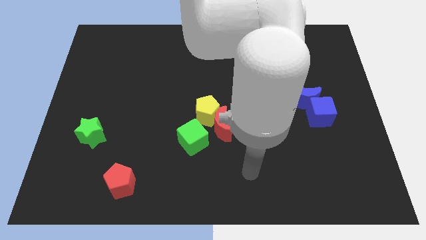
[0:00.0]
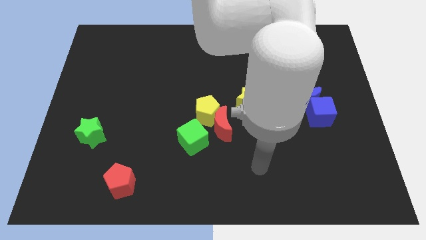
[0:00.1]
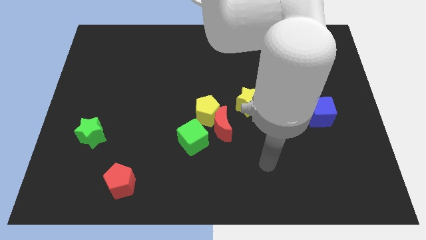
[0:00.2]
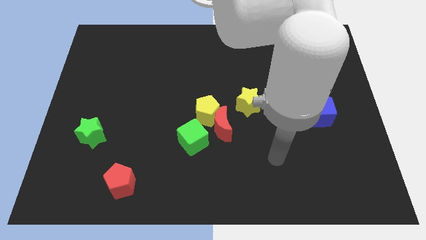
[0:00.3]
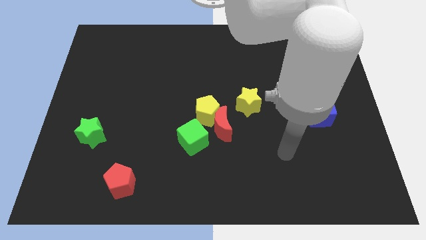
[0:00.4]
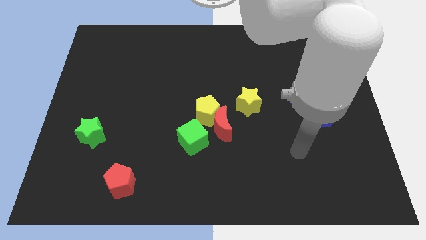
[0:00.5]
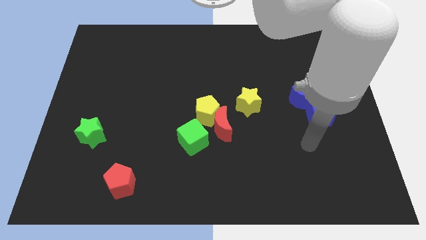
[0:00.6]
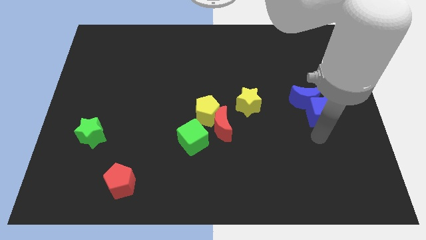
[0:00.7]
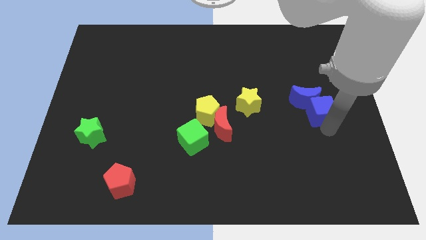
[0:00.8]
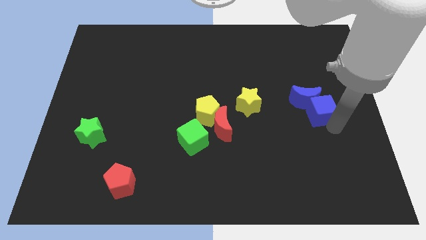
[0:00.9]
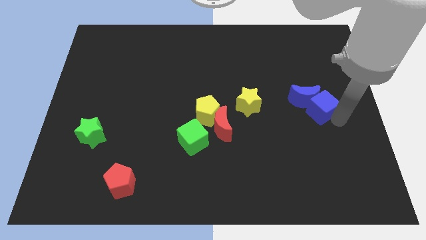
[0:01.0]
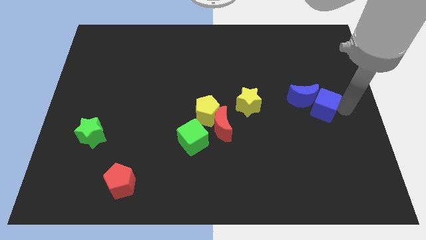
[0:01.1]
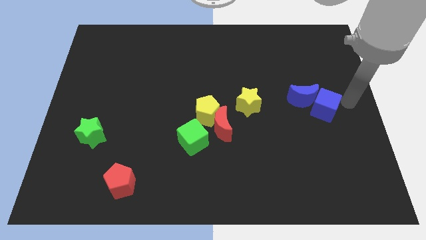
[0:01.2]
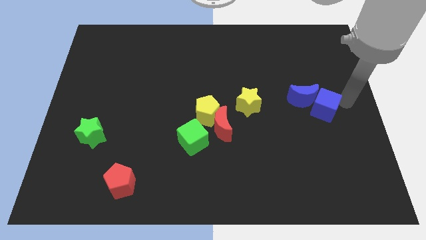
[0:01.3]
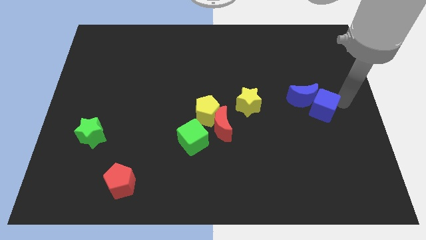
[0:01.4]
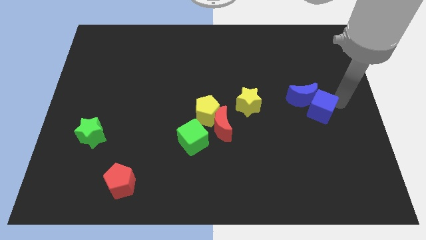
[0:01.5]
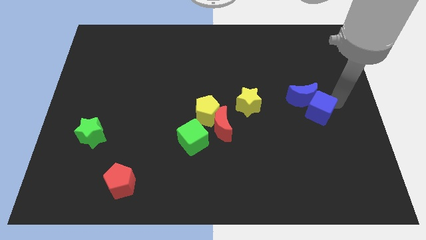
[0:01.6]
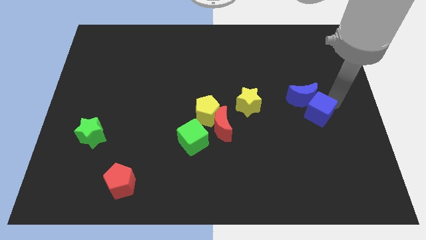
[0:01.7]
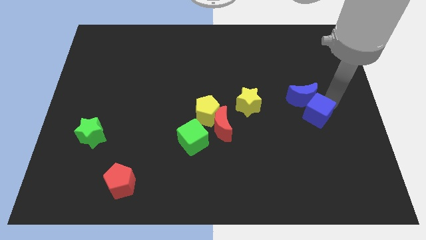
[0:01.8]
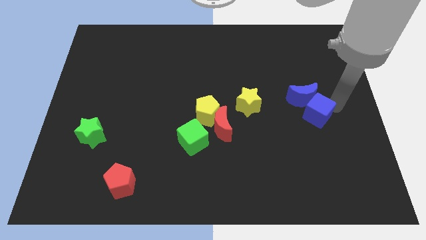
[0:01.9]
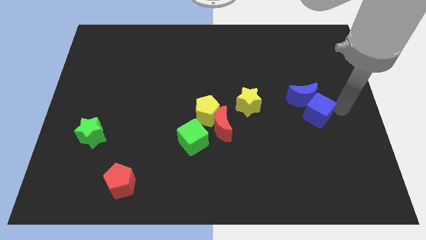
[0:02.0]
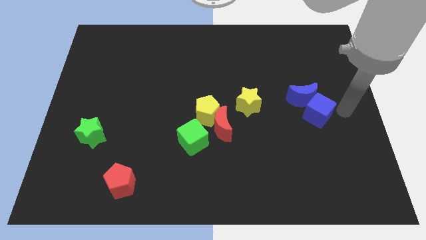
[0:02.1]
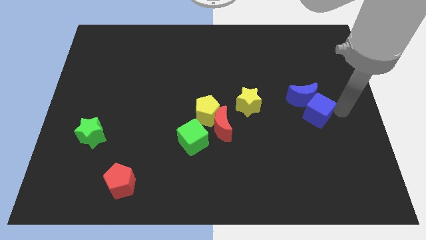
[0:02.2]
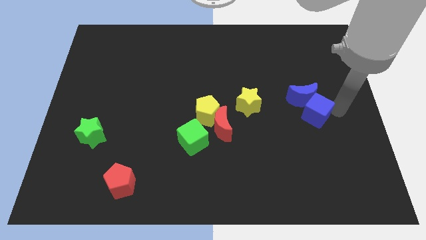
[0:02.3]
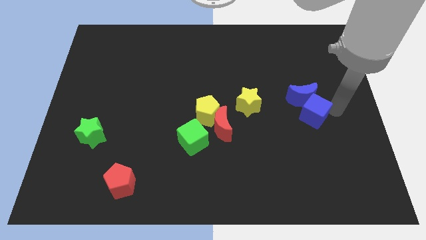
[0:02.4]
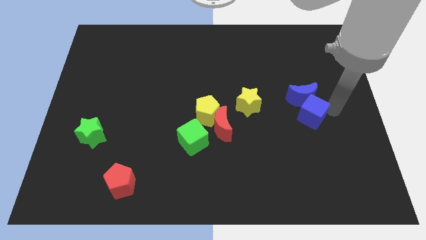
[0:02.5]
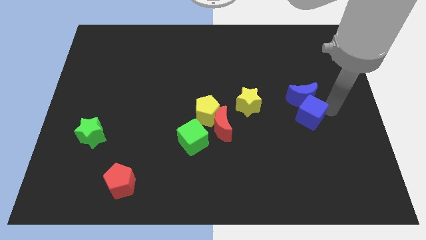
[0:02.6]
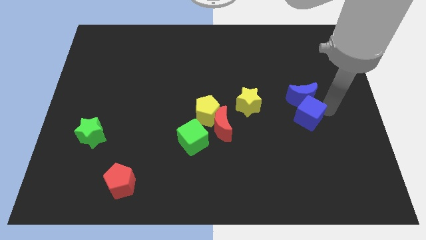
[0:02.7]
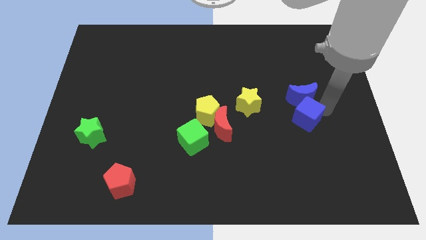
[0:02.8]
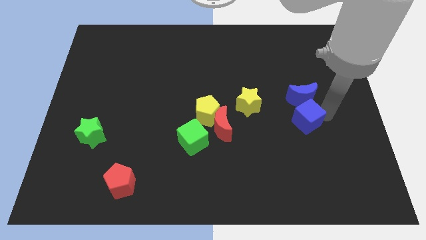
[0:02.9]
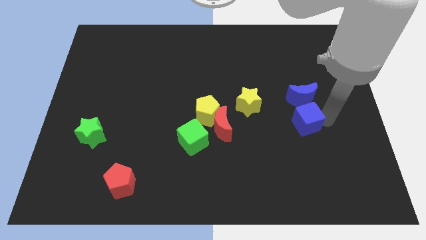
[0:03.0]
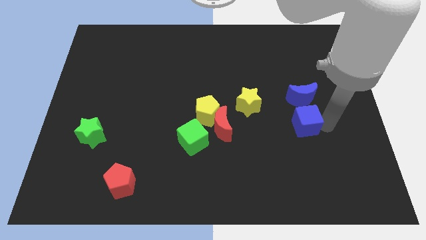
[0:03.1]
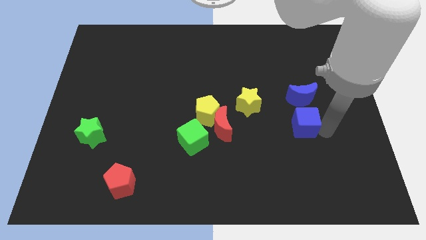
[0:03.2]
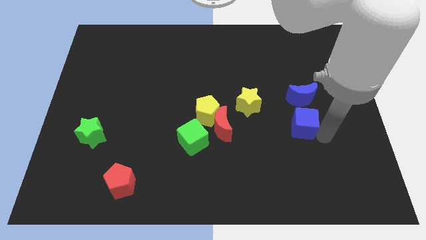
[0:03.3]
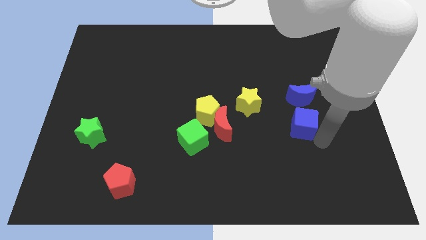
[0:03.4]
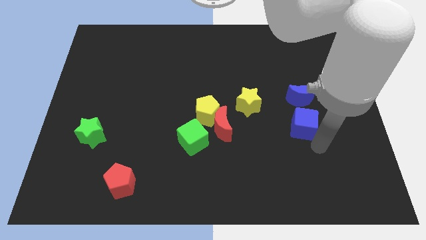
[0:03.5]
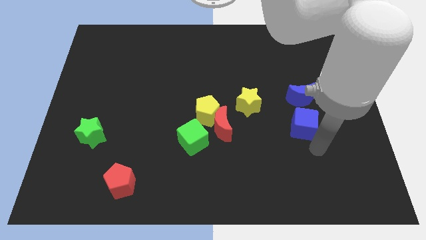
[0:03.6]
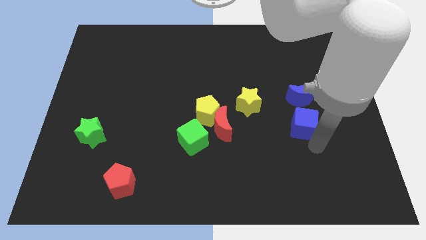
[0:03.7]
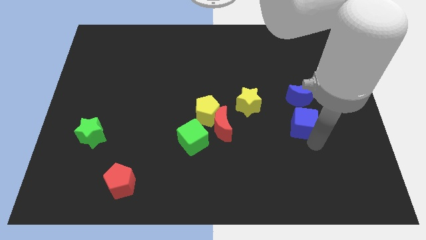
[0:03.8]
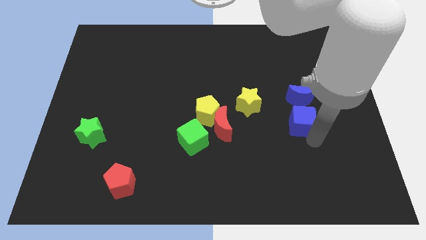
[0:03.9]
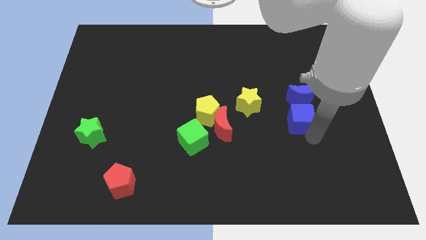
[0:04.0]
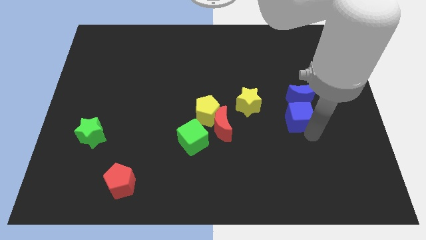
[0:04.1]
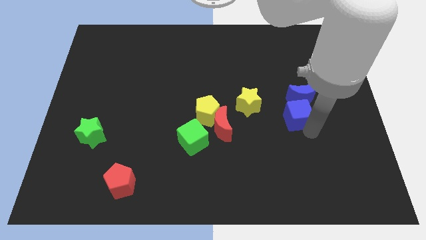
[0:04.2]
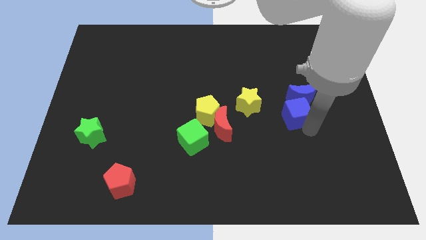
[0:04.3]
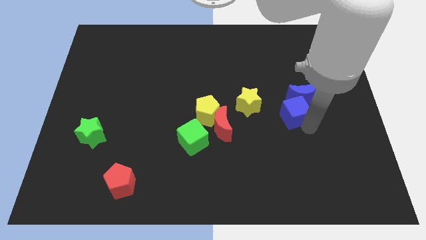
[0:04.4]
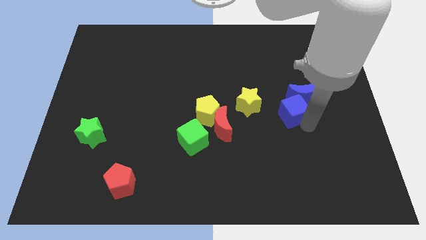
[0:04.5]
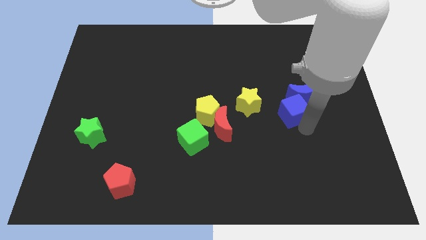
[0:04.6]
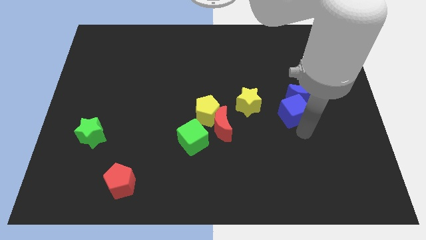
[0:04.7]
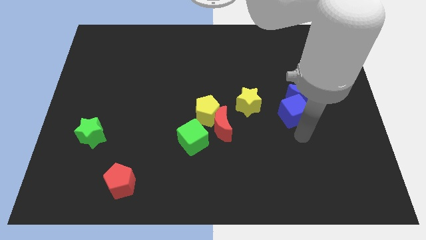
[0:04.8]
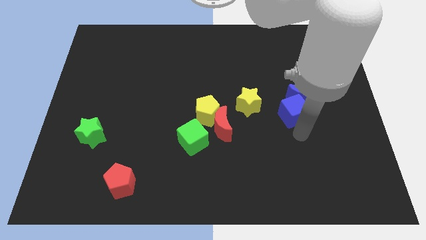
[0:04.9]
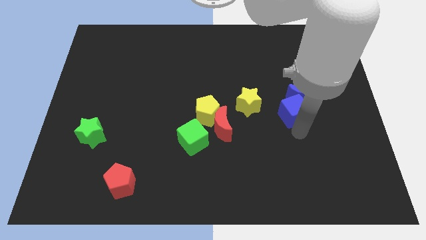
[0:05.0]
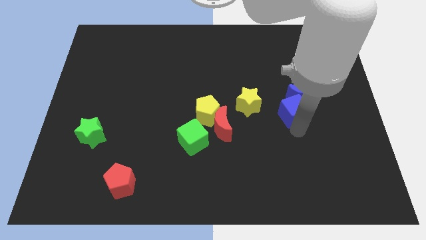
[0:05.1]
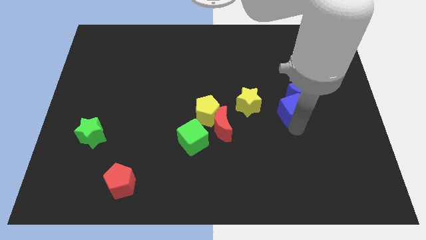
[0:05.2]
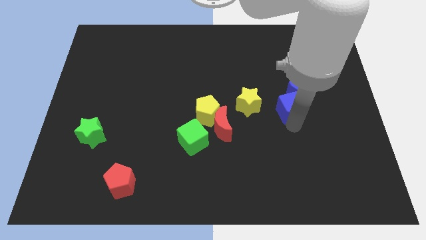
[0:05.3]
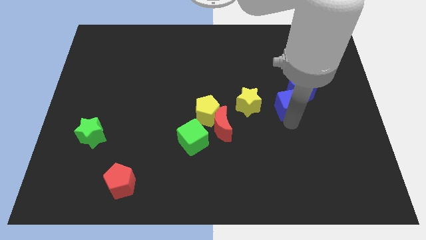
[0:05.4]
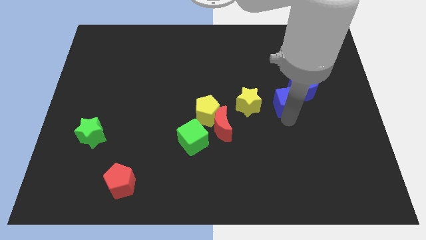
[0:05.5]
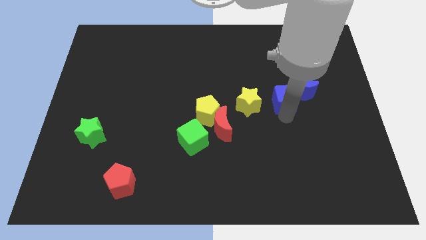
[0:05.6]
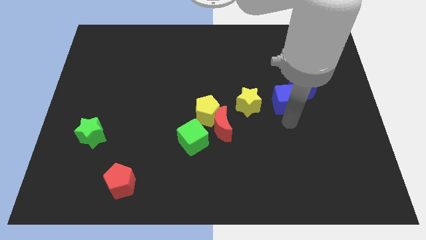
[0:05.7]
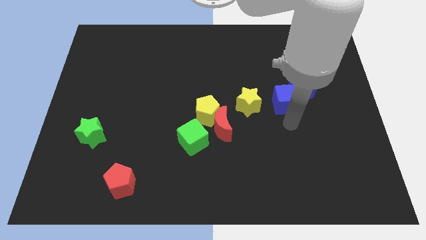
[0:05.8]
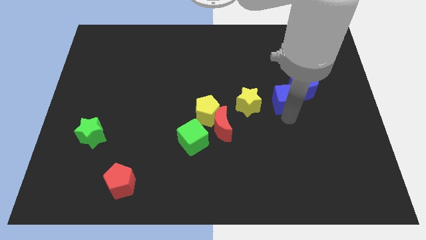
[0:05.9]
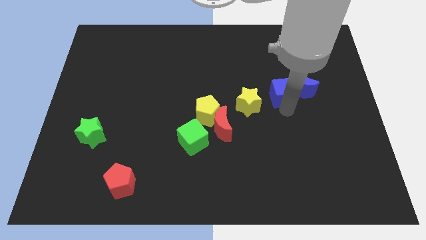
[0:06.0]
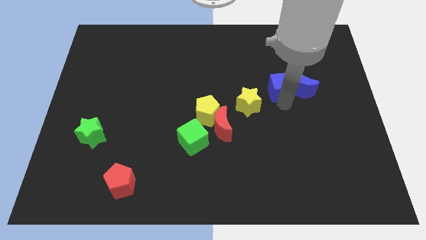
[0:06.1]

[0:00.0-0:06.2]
push the blue cube to the top left side of the blue moon

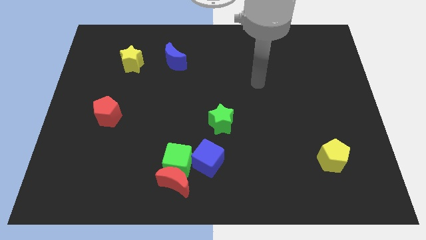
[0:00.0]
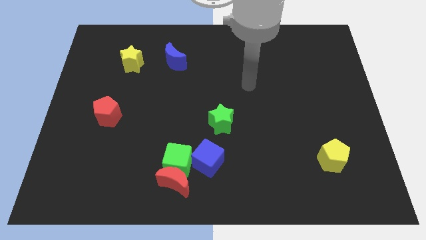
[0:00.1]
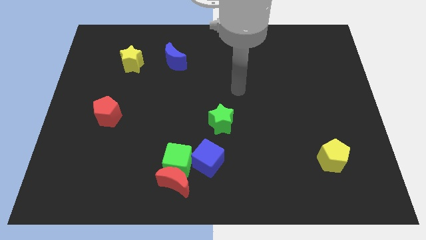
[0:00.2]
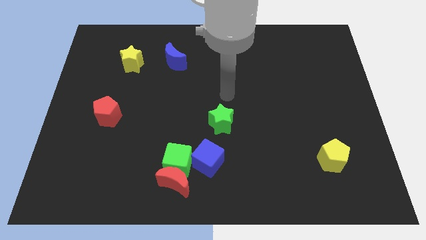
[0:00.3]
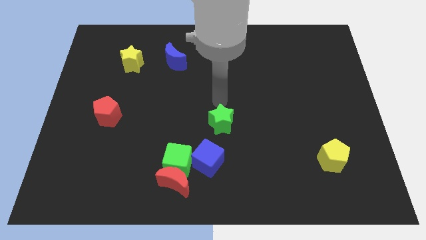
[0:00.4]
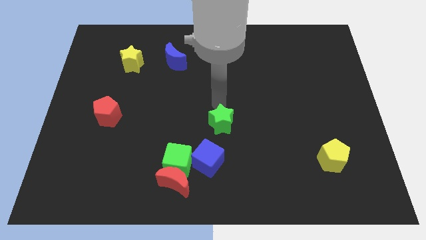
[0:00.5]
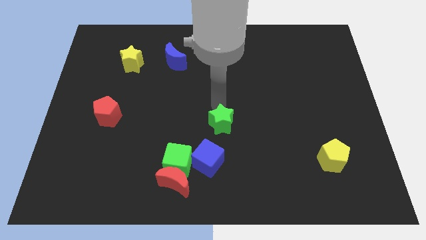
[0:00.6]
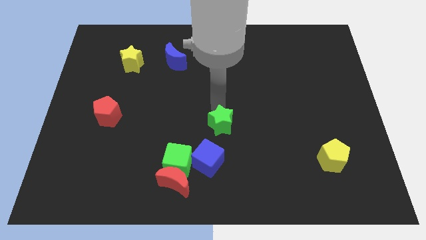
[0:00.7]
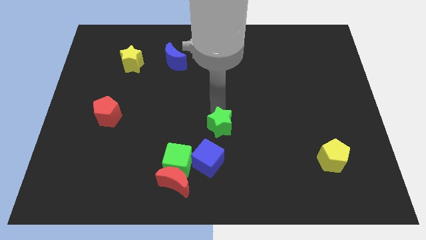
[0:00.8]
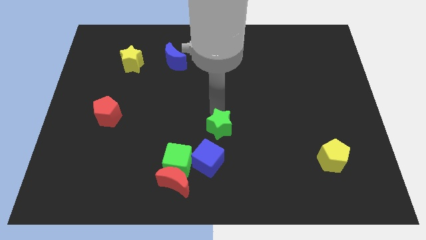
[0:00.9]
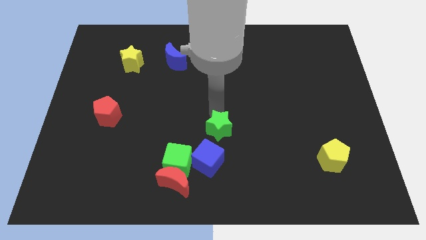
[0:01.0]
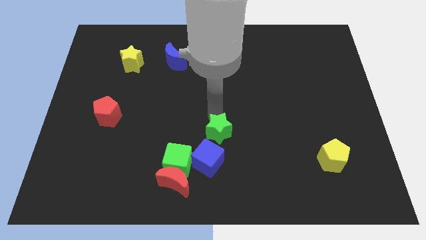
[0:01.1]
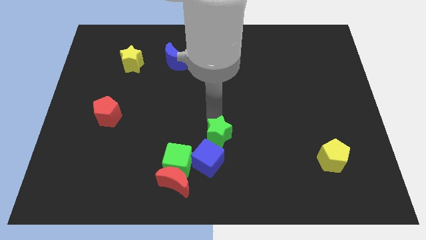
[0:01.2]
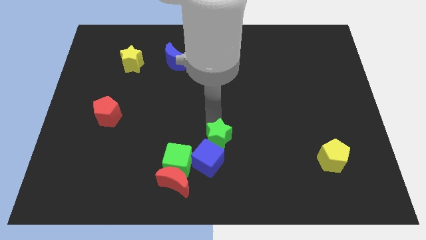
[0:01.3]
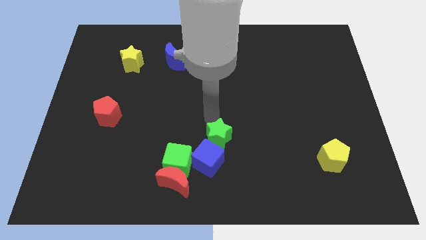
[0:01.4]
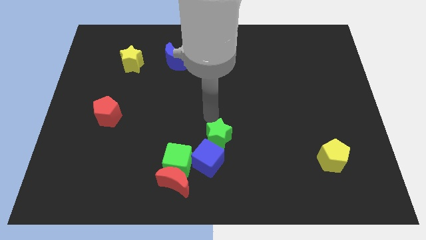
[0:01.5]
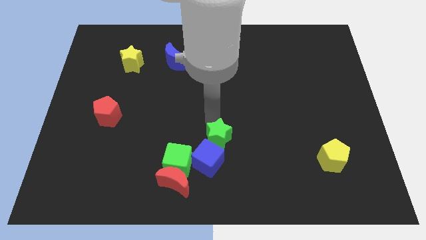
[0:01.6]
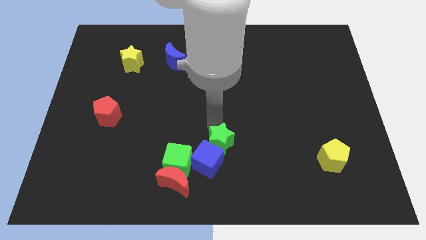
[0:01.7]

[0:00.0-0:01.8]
put the green star right of the green cube
